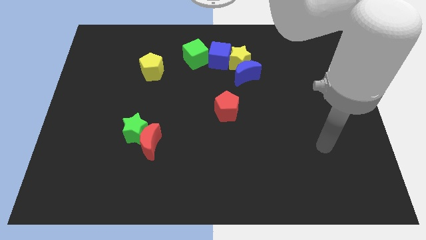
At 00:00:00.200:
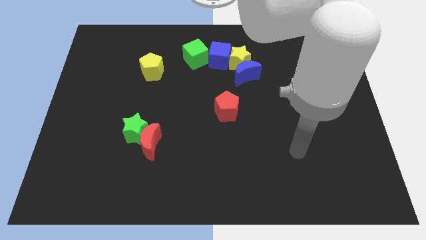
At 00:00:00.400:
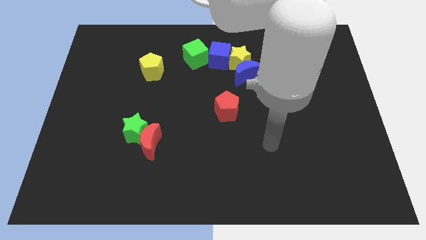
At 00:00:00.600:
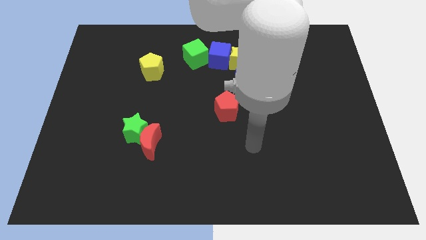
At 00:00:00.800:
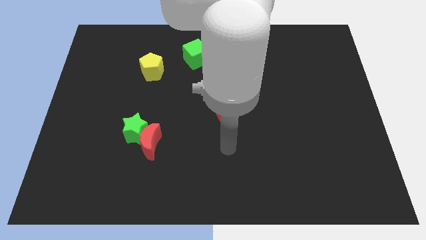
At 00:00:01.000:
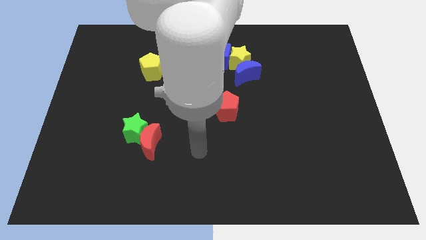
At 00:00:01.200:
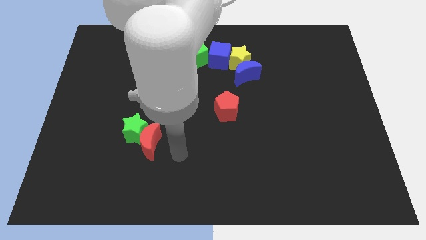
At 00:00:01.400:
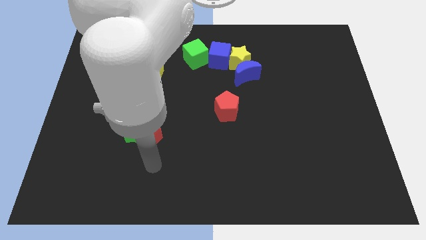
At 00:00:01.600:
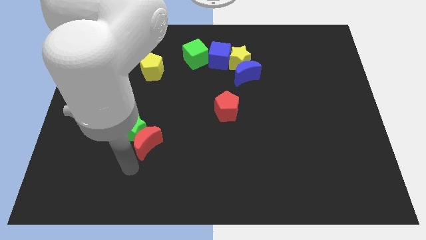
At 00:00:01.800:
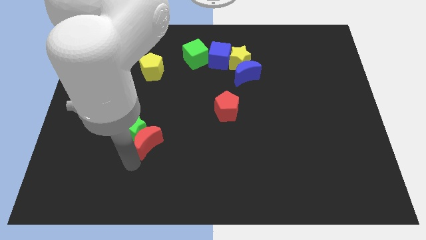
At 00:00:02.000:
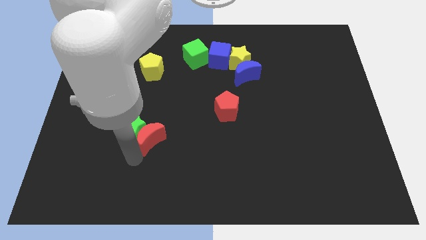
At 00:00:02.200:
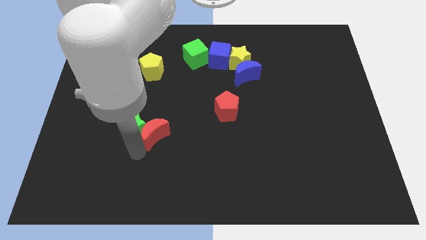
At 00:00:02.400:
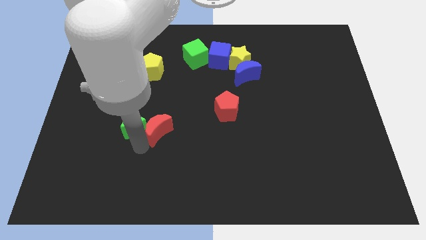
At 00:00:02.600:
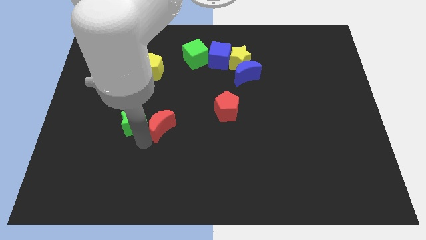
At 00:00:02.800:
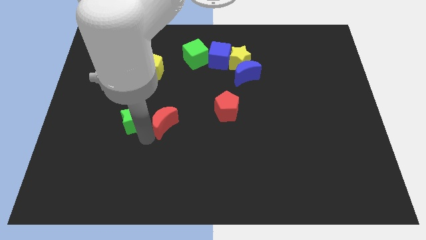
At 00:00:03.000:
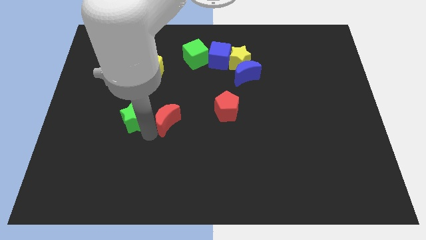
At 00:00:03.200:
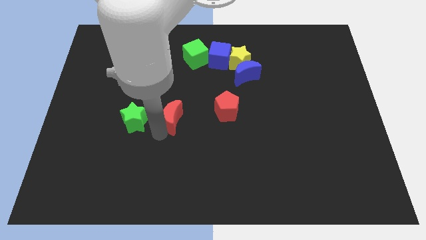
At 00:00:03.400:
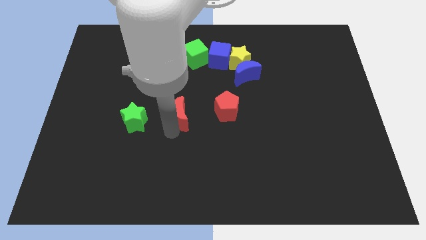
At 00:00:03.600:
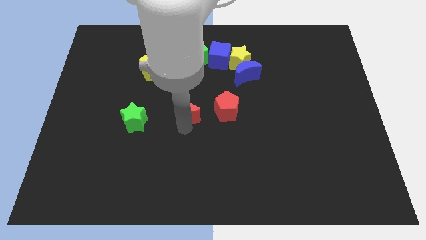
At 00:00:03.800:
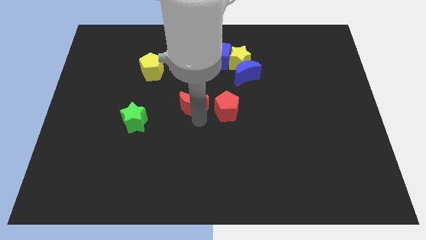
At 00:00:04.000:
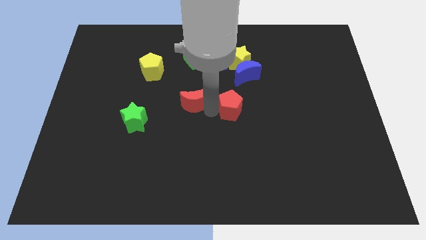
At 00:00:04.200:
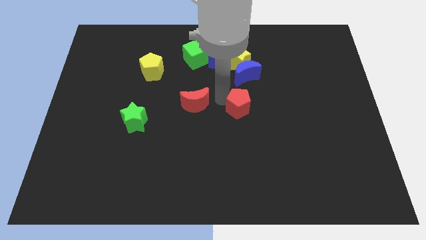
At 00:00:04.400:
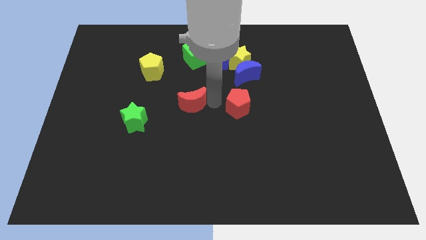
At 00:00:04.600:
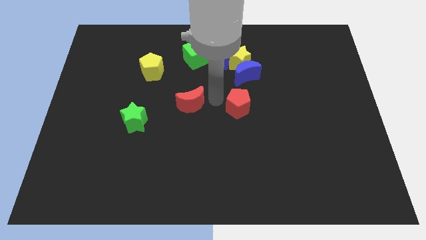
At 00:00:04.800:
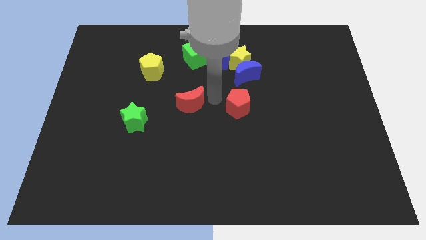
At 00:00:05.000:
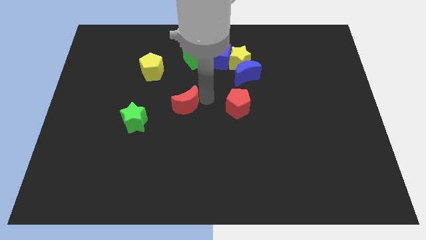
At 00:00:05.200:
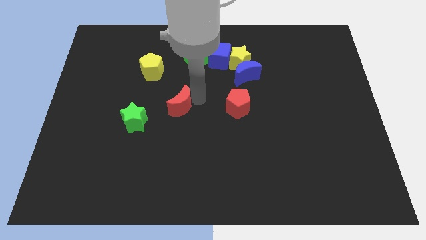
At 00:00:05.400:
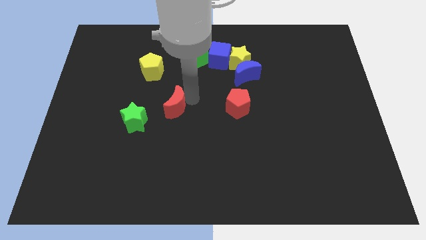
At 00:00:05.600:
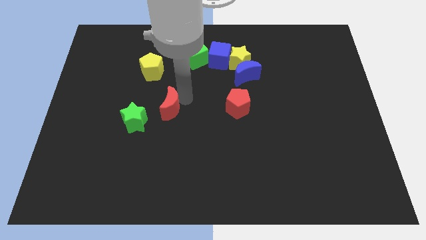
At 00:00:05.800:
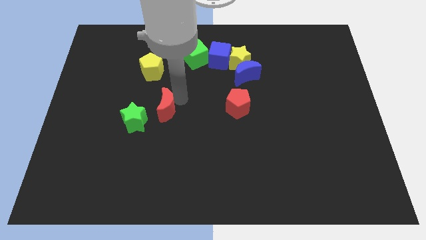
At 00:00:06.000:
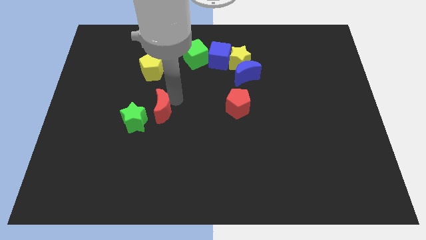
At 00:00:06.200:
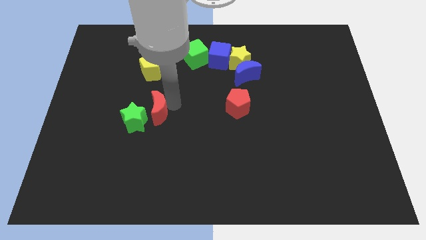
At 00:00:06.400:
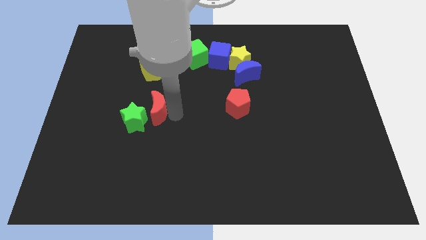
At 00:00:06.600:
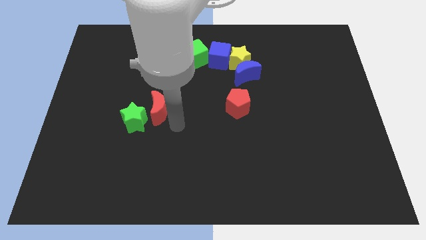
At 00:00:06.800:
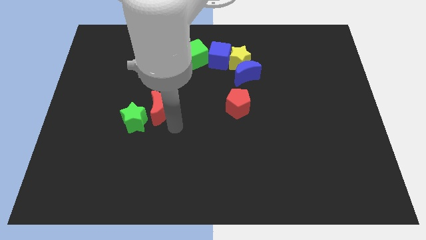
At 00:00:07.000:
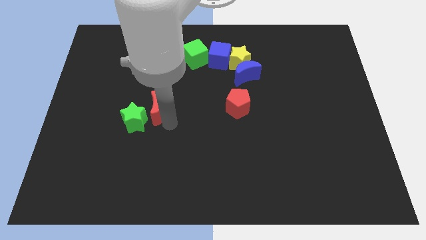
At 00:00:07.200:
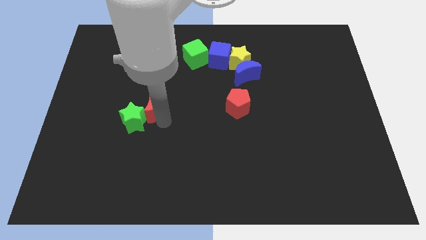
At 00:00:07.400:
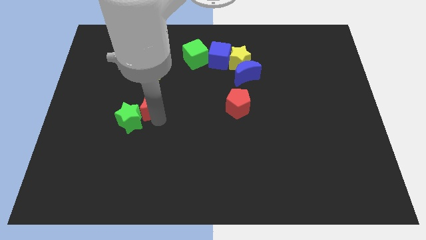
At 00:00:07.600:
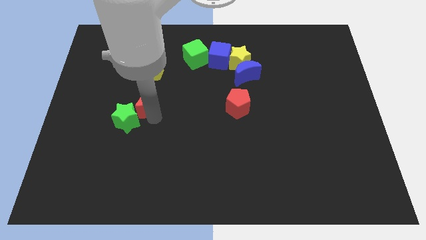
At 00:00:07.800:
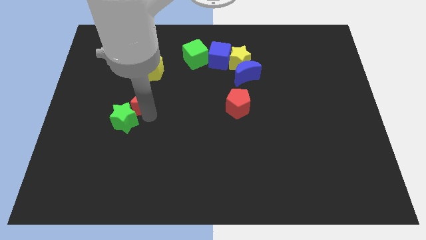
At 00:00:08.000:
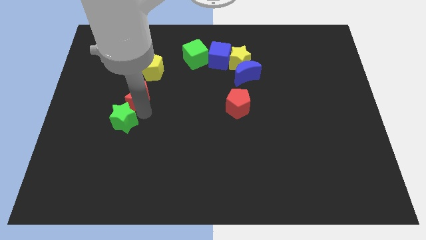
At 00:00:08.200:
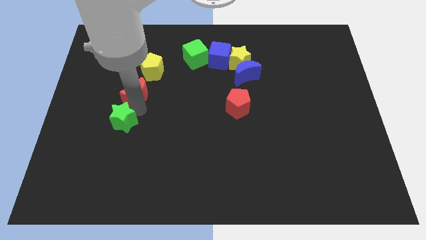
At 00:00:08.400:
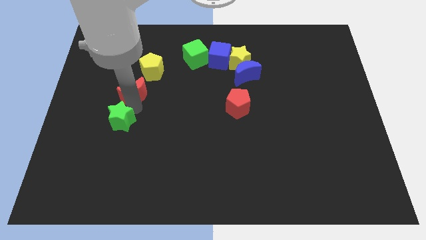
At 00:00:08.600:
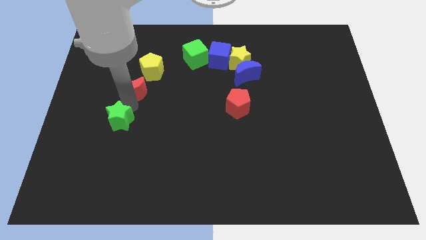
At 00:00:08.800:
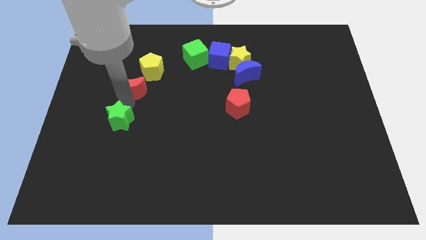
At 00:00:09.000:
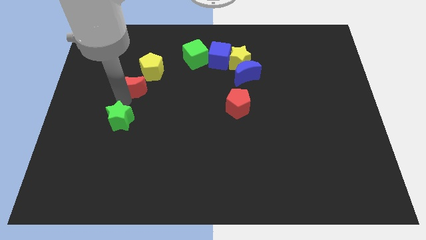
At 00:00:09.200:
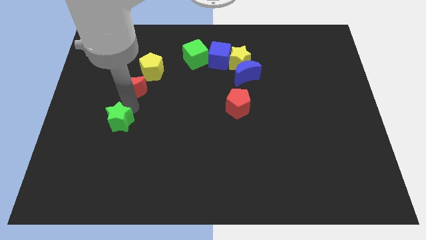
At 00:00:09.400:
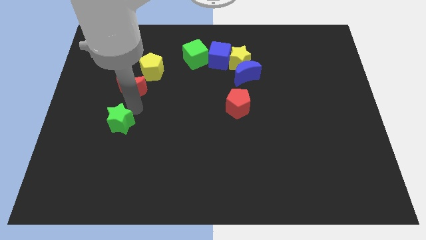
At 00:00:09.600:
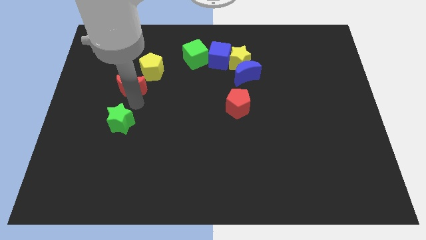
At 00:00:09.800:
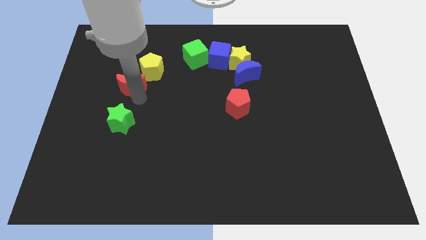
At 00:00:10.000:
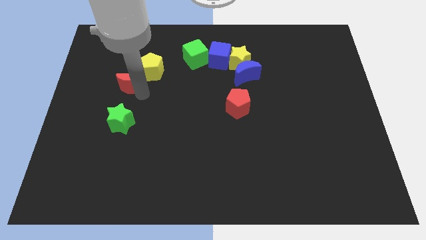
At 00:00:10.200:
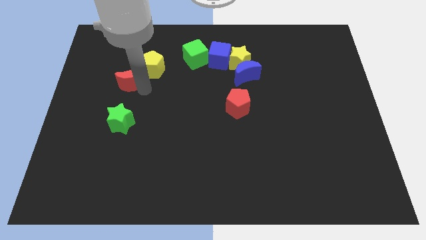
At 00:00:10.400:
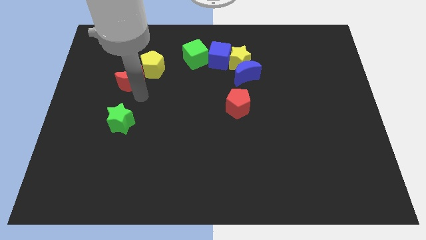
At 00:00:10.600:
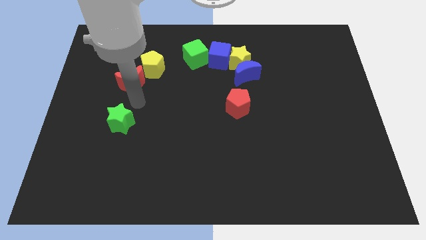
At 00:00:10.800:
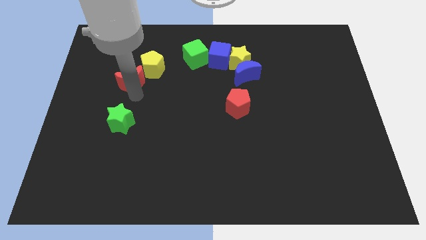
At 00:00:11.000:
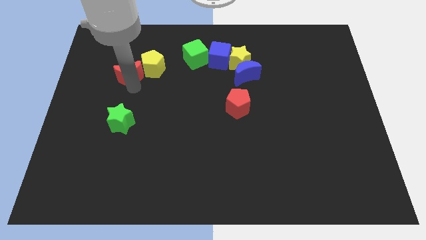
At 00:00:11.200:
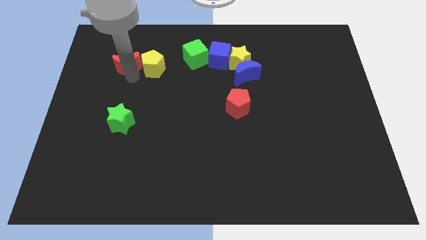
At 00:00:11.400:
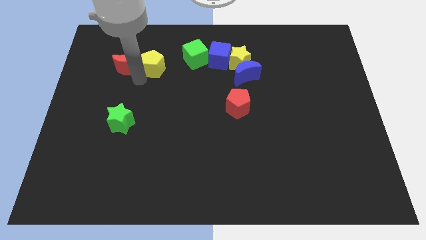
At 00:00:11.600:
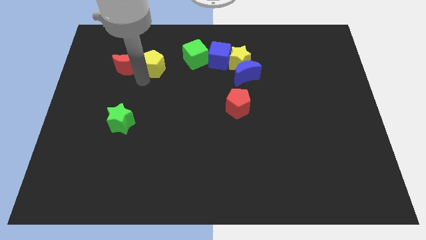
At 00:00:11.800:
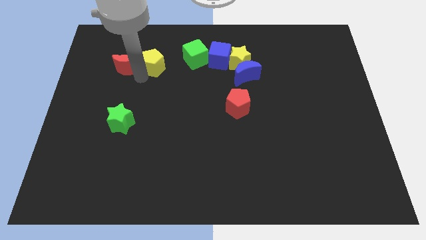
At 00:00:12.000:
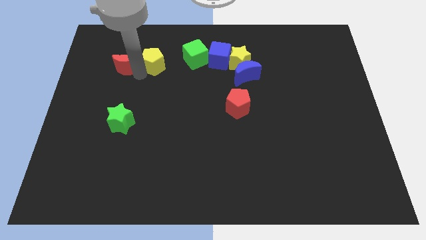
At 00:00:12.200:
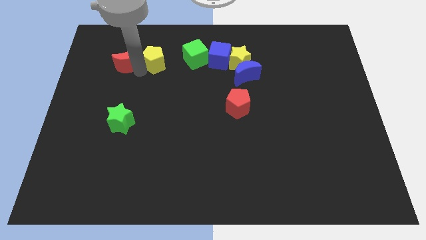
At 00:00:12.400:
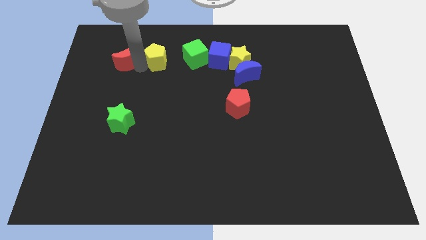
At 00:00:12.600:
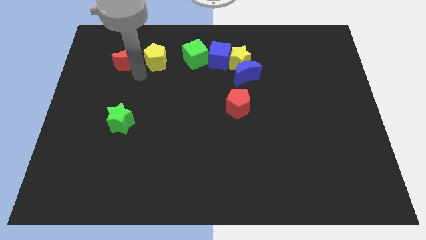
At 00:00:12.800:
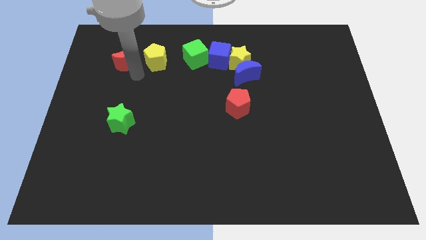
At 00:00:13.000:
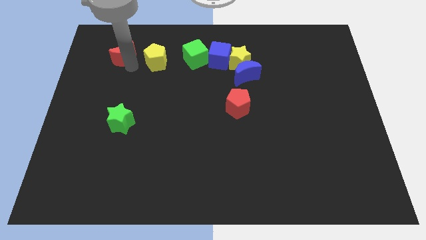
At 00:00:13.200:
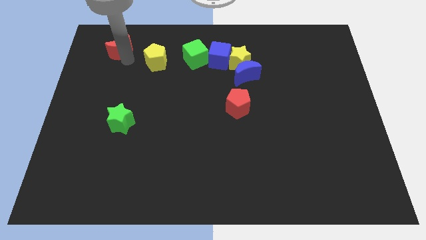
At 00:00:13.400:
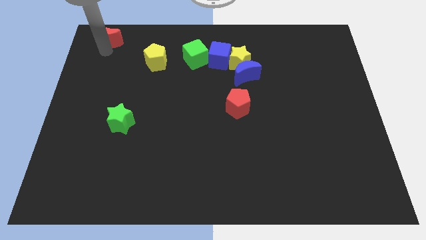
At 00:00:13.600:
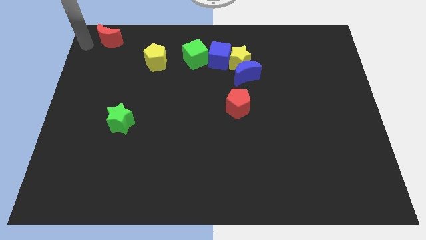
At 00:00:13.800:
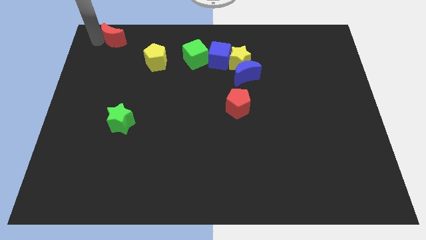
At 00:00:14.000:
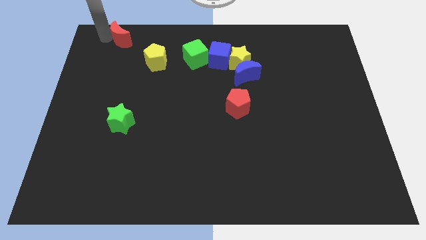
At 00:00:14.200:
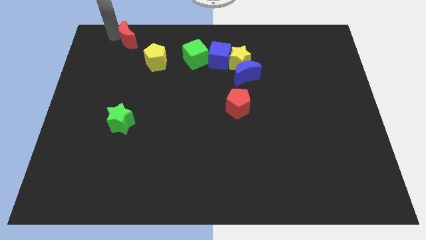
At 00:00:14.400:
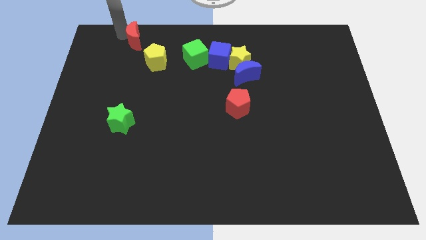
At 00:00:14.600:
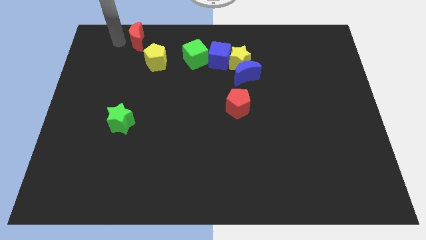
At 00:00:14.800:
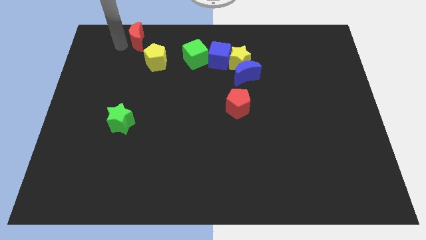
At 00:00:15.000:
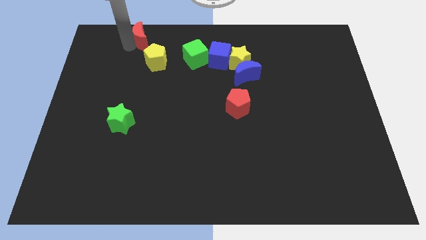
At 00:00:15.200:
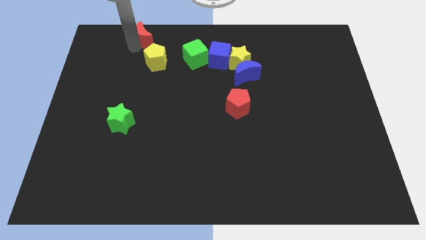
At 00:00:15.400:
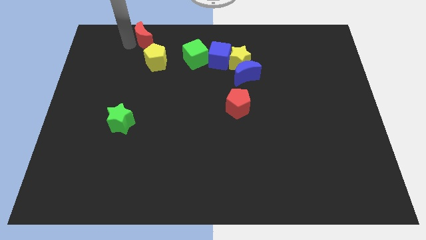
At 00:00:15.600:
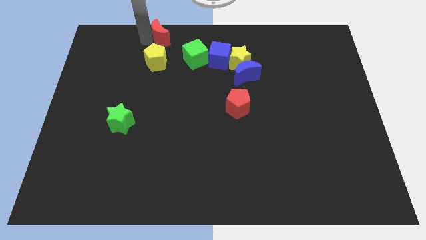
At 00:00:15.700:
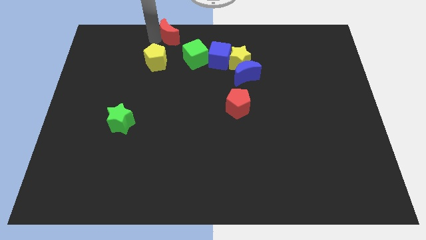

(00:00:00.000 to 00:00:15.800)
put the red moon to the towards your base
